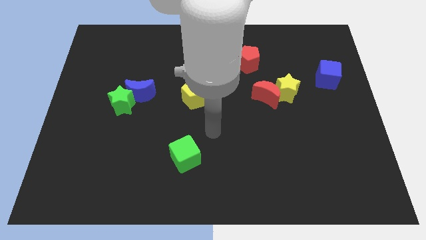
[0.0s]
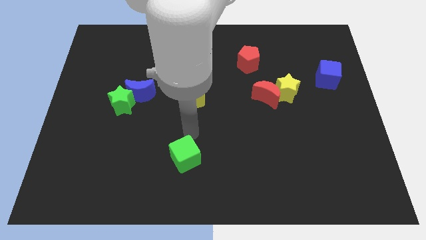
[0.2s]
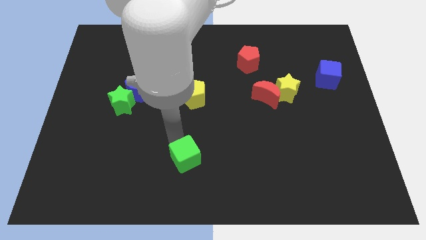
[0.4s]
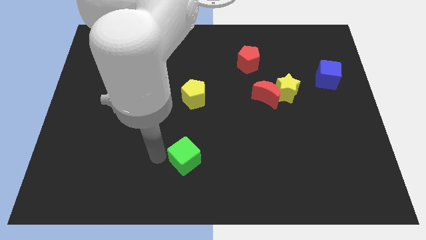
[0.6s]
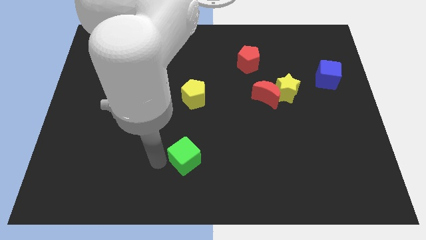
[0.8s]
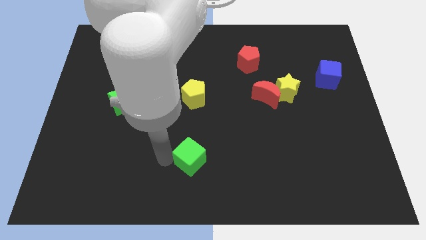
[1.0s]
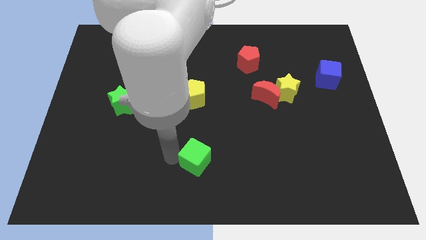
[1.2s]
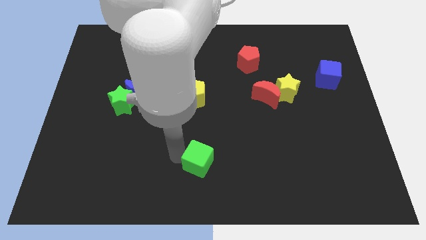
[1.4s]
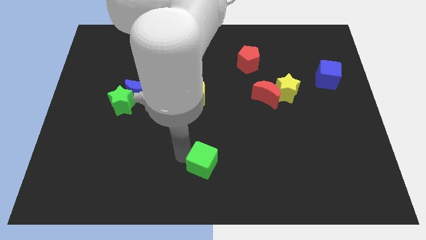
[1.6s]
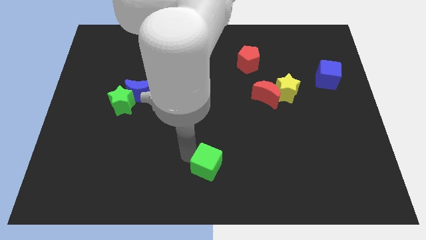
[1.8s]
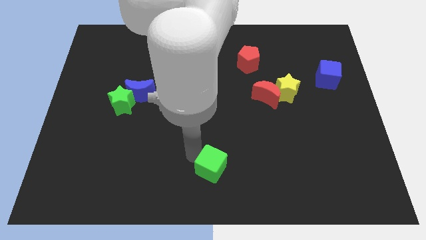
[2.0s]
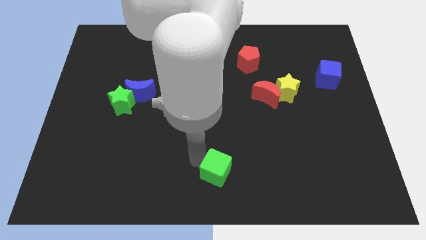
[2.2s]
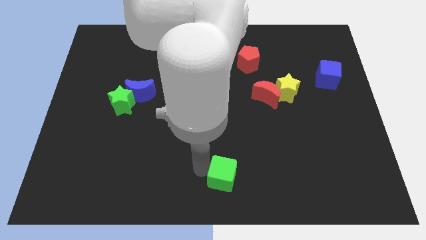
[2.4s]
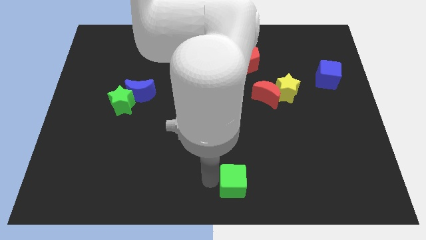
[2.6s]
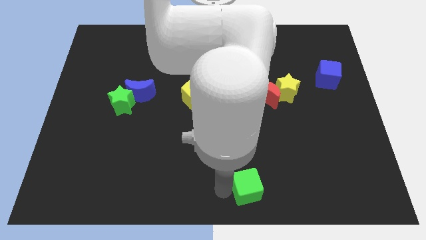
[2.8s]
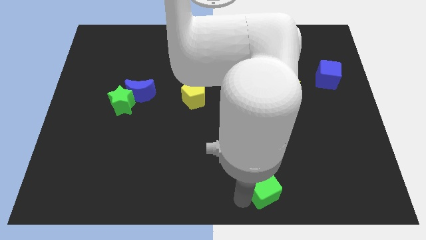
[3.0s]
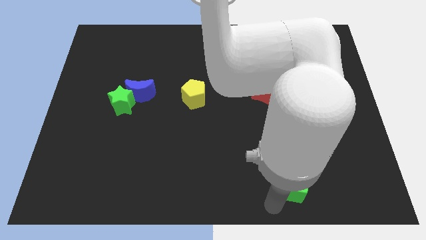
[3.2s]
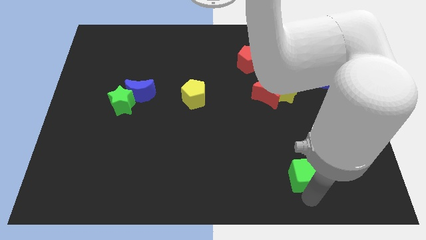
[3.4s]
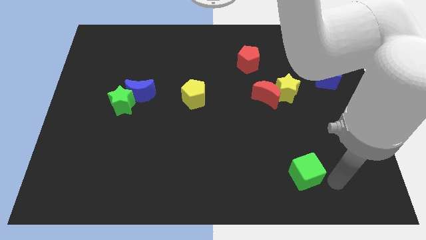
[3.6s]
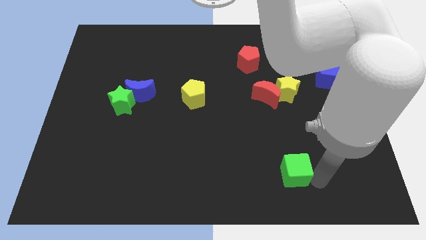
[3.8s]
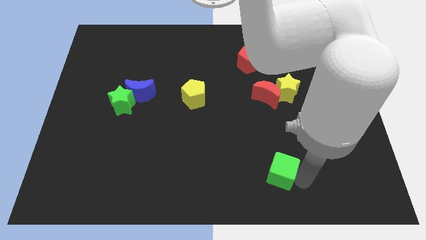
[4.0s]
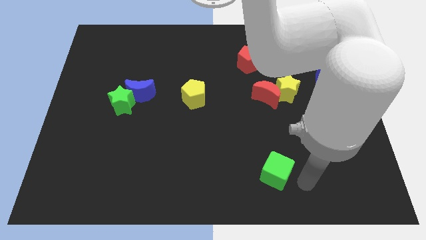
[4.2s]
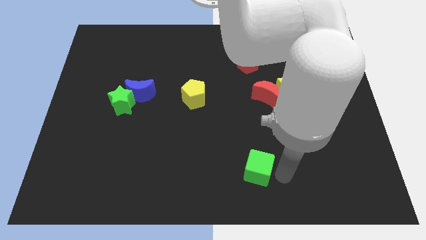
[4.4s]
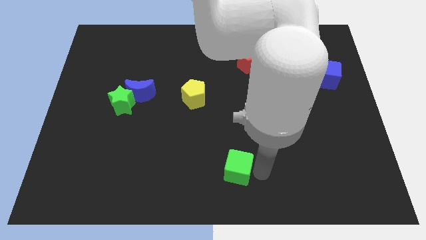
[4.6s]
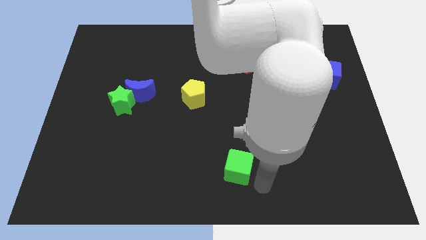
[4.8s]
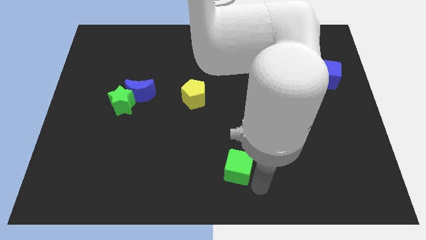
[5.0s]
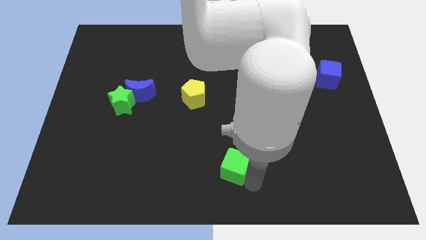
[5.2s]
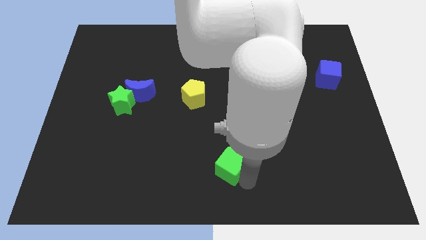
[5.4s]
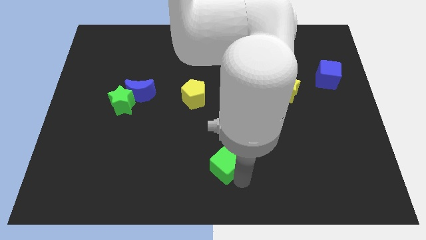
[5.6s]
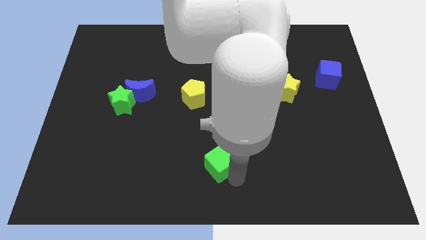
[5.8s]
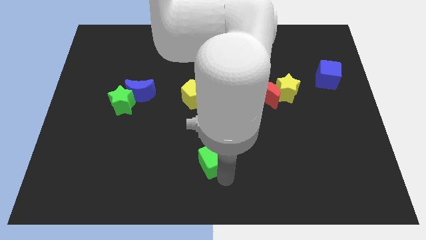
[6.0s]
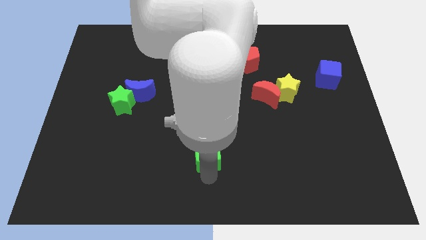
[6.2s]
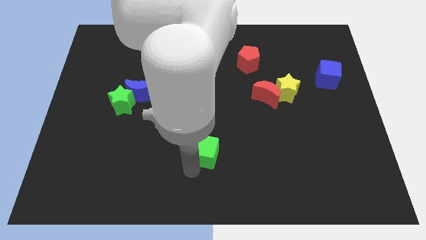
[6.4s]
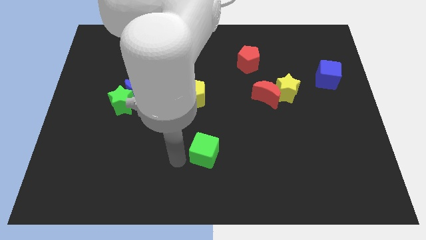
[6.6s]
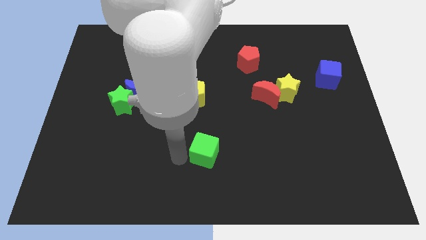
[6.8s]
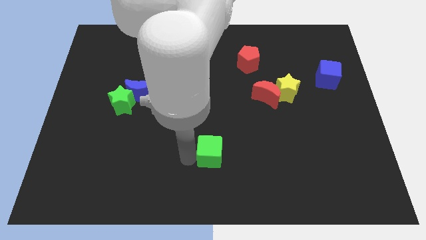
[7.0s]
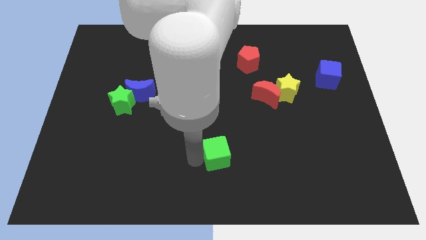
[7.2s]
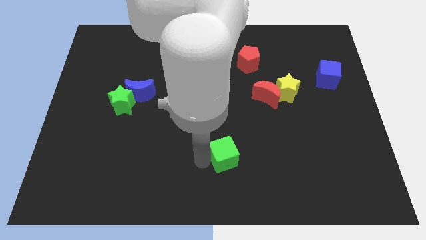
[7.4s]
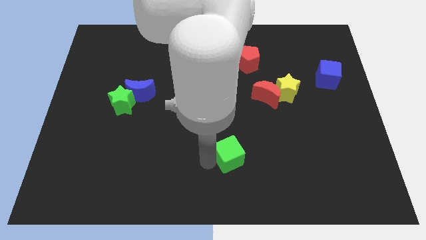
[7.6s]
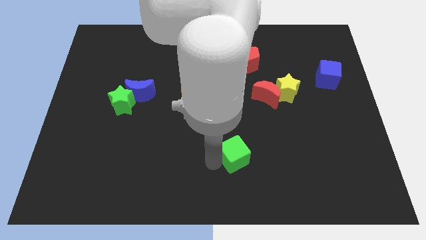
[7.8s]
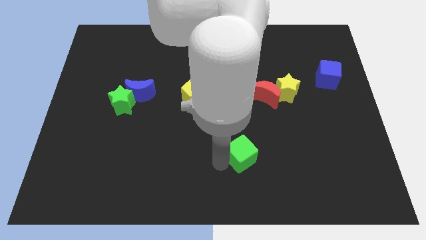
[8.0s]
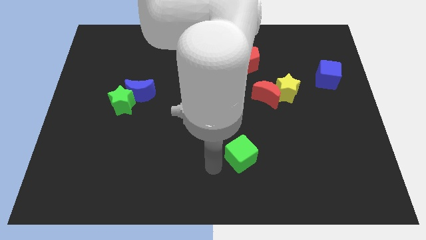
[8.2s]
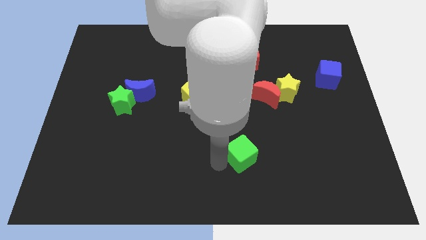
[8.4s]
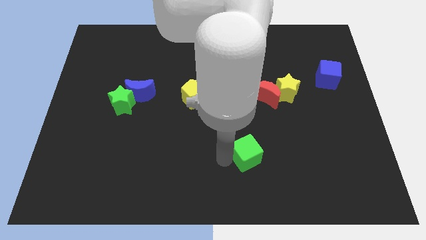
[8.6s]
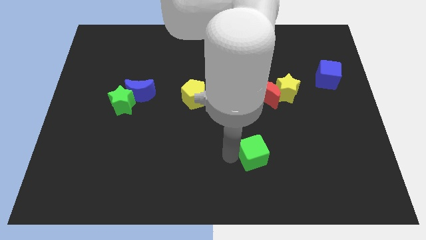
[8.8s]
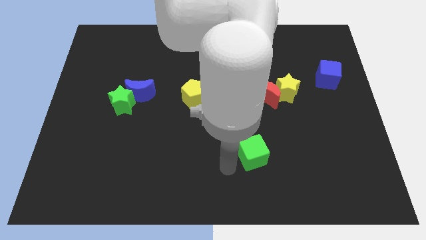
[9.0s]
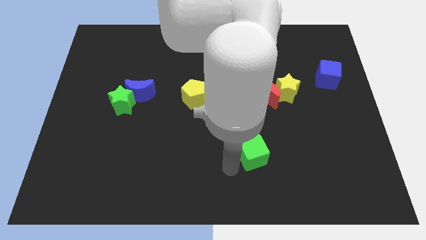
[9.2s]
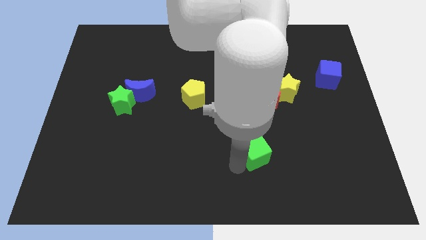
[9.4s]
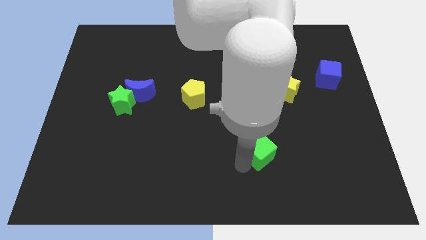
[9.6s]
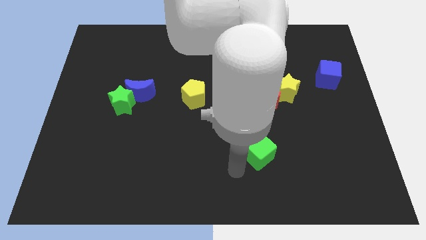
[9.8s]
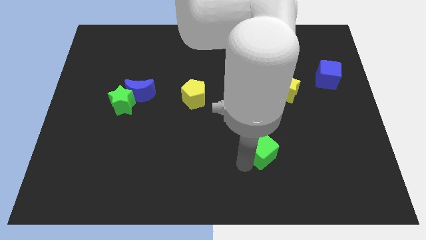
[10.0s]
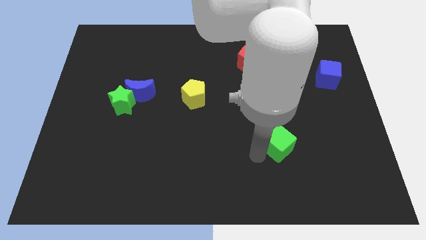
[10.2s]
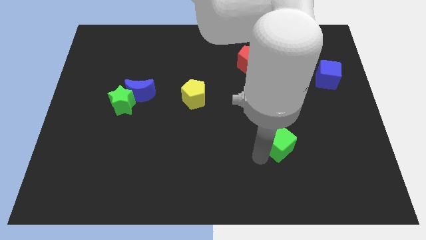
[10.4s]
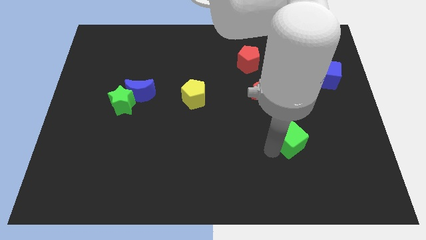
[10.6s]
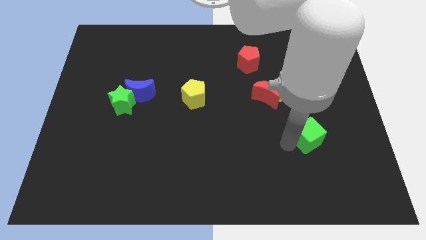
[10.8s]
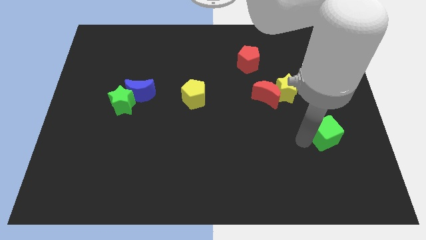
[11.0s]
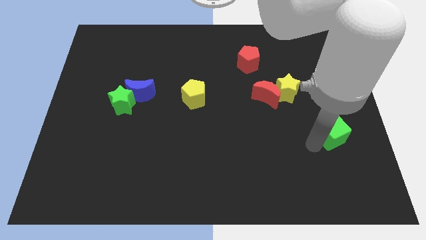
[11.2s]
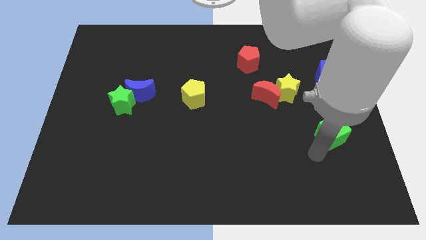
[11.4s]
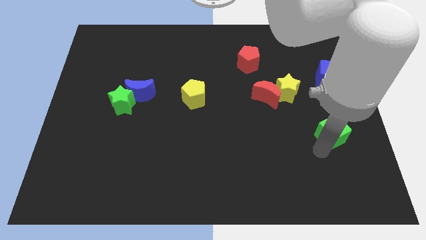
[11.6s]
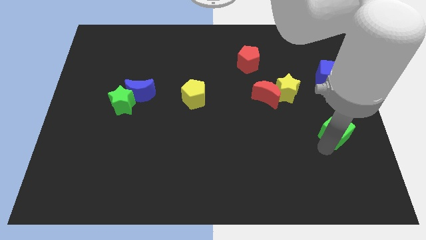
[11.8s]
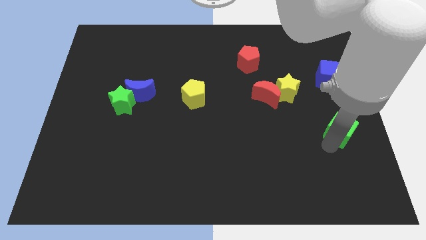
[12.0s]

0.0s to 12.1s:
put the green cube to the center right

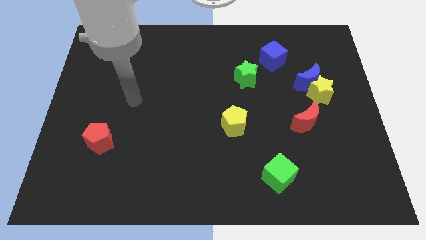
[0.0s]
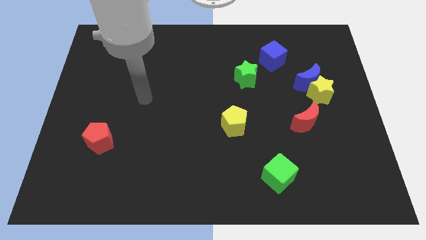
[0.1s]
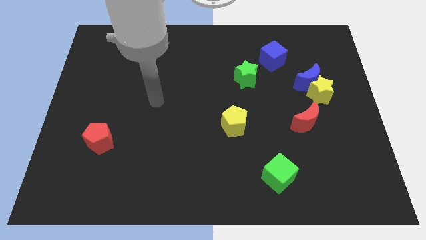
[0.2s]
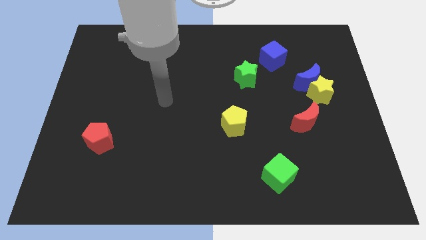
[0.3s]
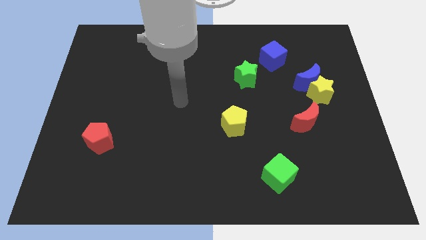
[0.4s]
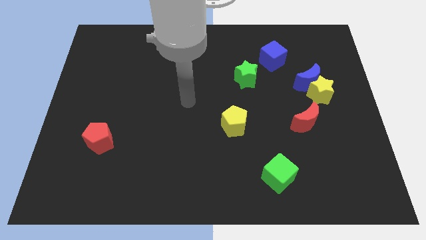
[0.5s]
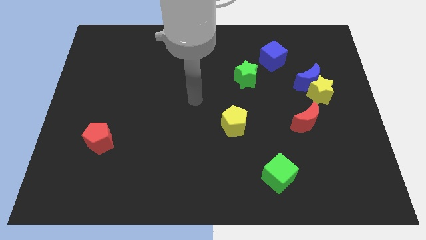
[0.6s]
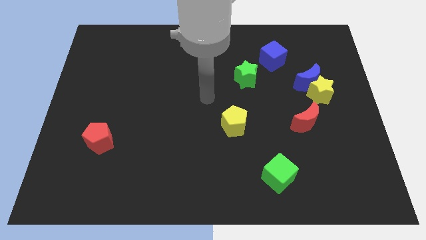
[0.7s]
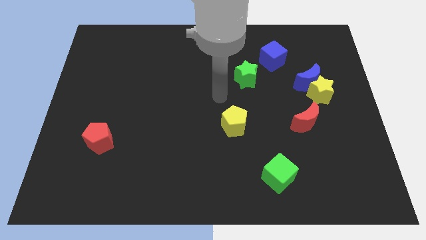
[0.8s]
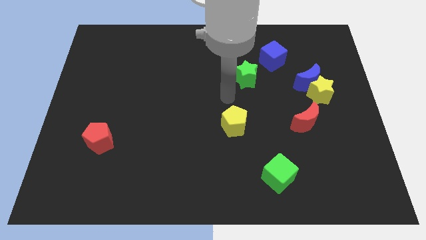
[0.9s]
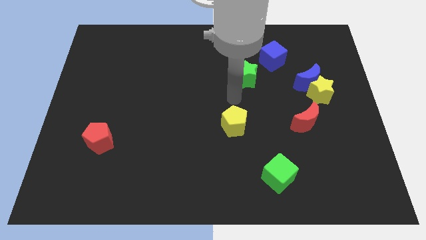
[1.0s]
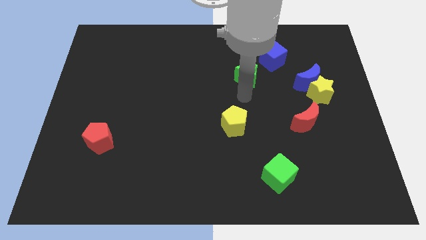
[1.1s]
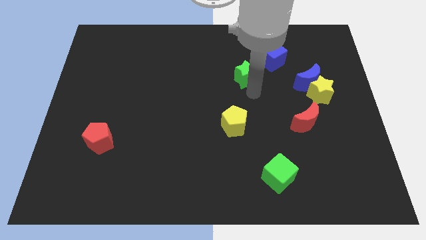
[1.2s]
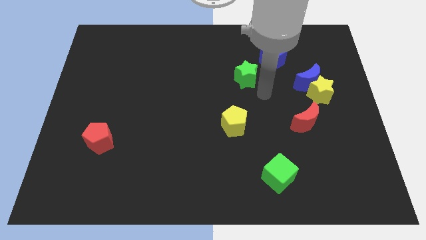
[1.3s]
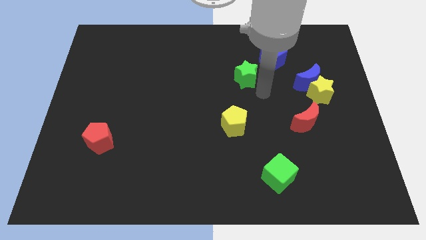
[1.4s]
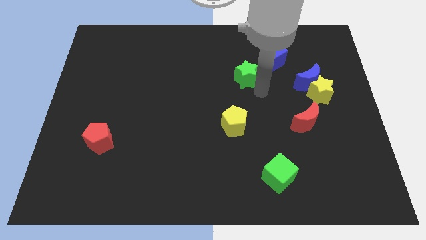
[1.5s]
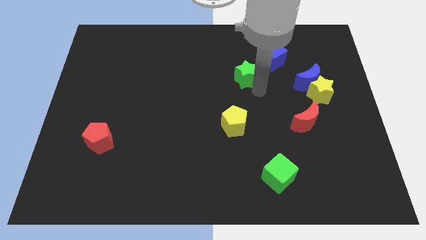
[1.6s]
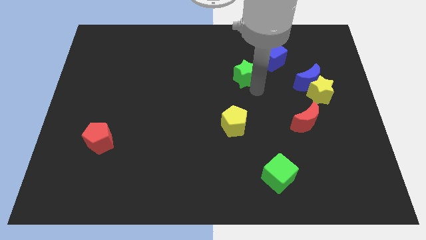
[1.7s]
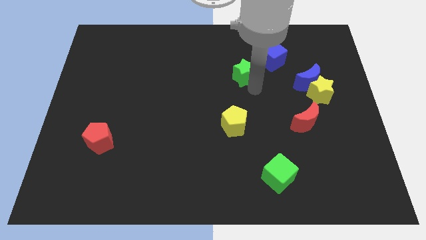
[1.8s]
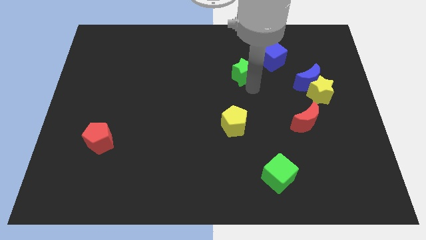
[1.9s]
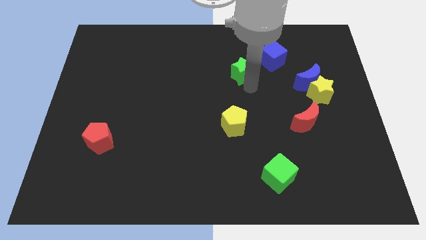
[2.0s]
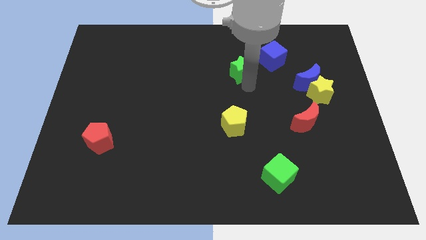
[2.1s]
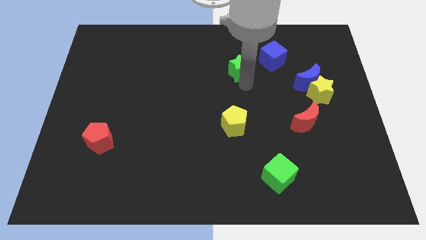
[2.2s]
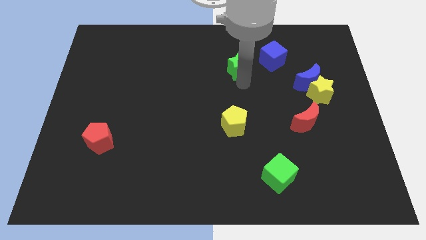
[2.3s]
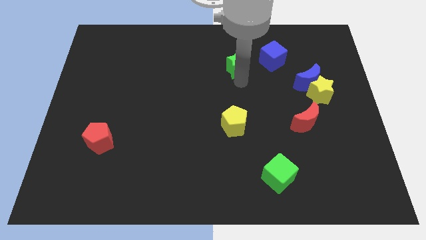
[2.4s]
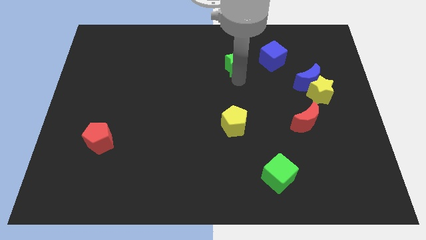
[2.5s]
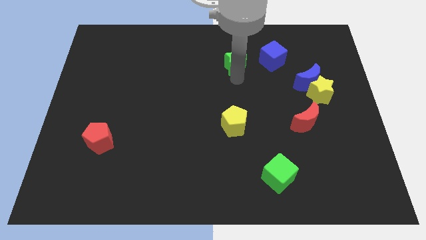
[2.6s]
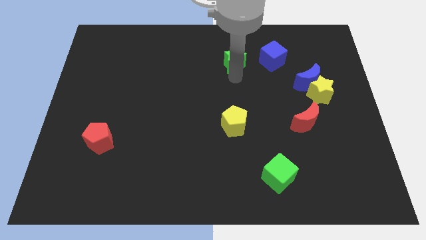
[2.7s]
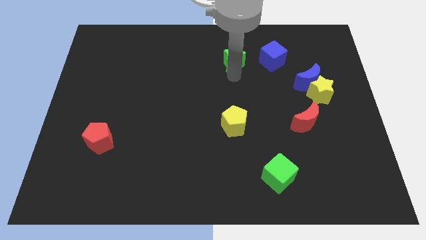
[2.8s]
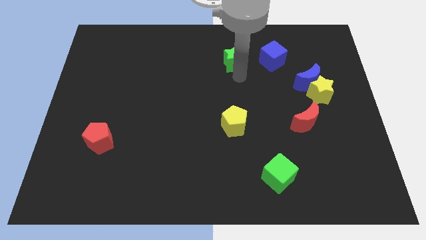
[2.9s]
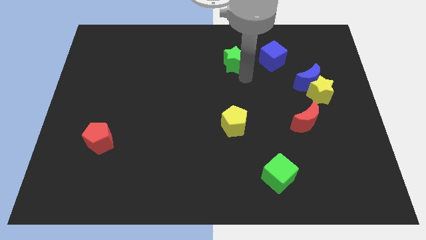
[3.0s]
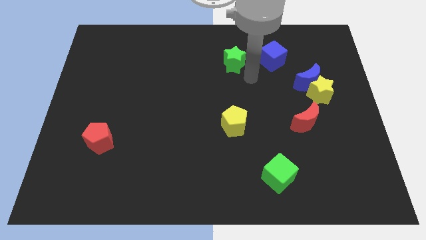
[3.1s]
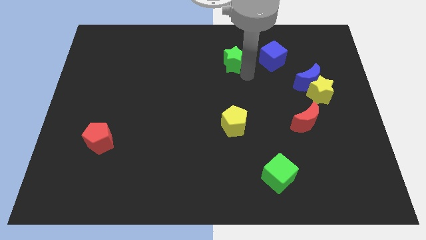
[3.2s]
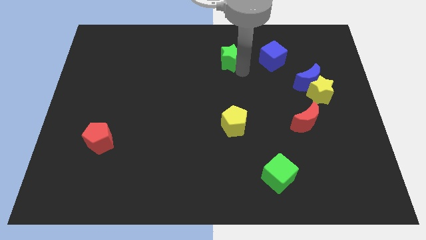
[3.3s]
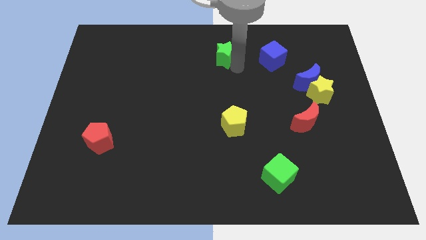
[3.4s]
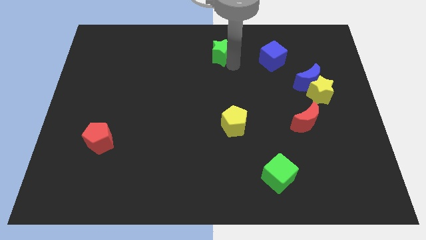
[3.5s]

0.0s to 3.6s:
push the green star to the top side
